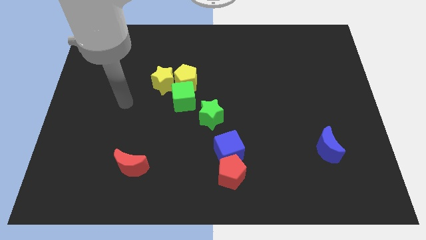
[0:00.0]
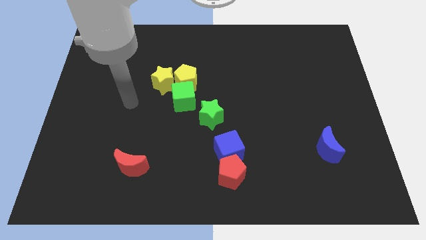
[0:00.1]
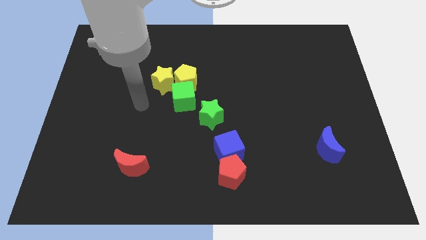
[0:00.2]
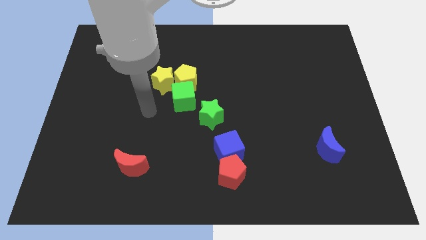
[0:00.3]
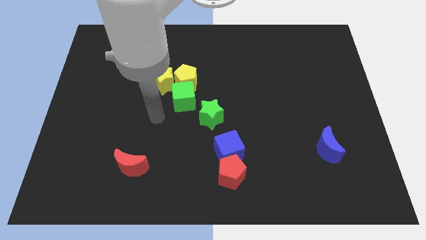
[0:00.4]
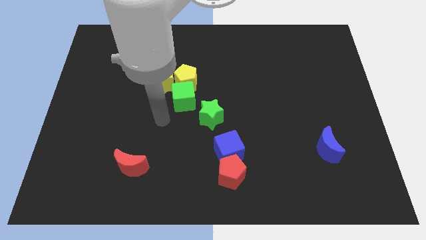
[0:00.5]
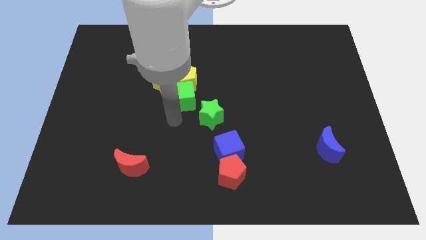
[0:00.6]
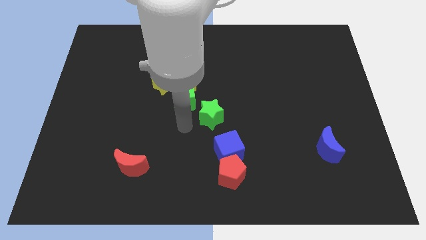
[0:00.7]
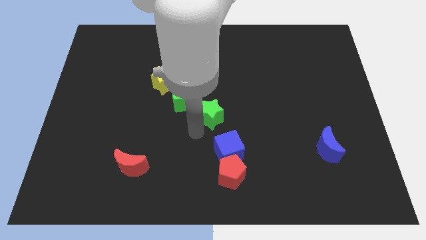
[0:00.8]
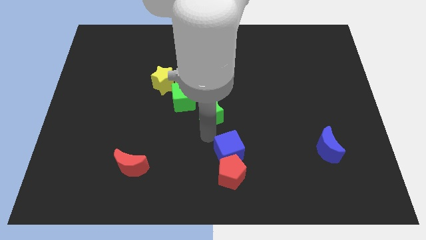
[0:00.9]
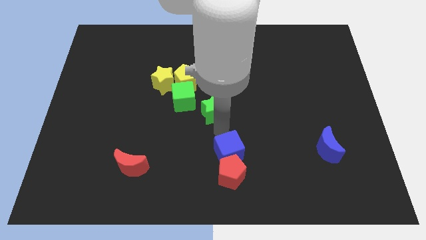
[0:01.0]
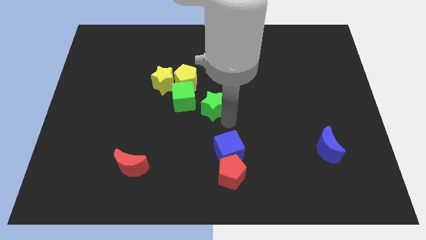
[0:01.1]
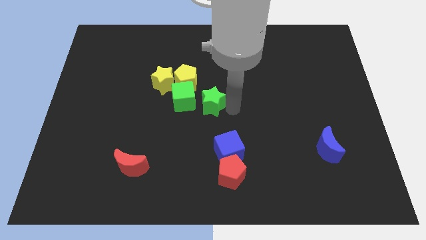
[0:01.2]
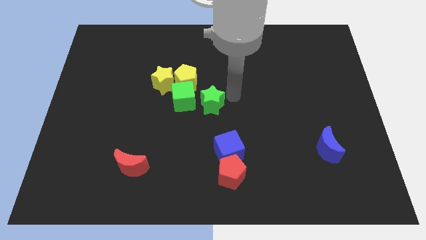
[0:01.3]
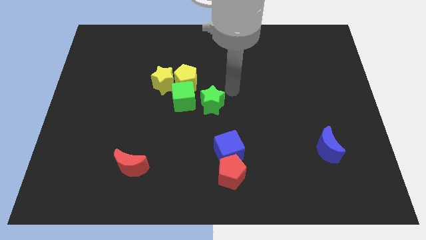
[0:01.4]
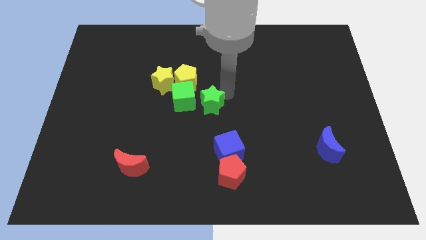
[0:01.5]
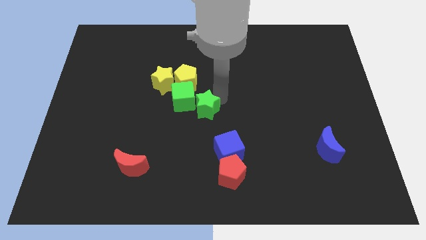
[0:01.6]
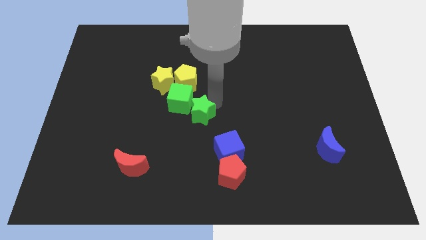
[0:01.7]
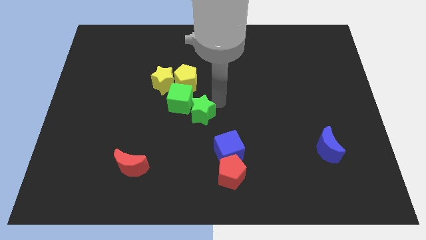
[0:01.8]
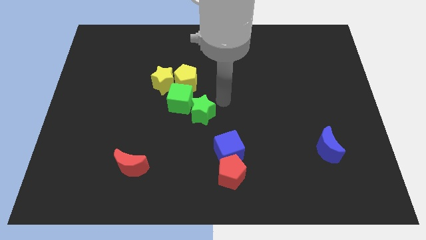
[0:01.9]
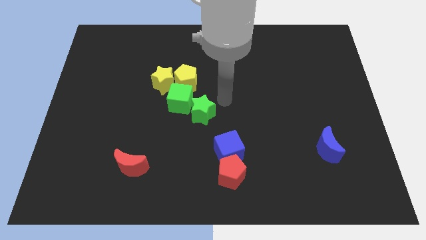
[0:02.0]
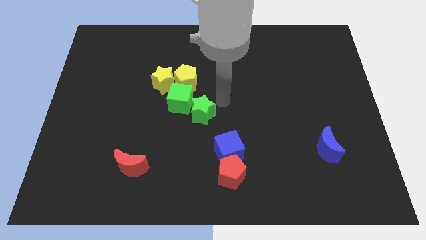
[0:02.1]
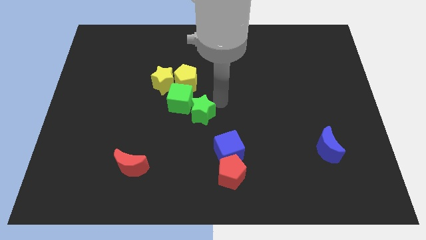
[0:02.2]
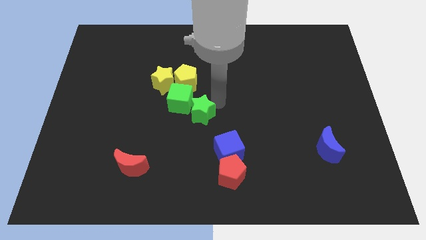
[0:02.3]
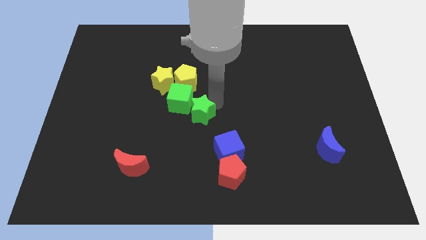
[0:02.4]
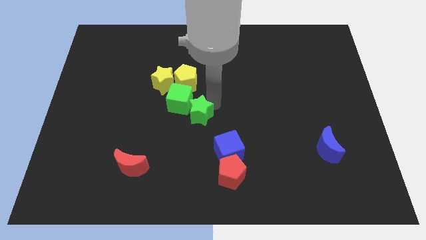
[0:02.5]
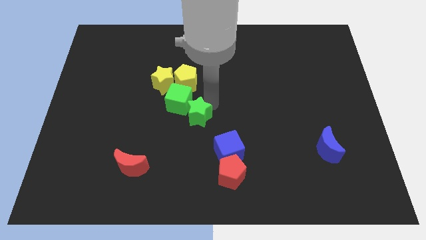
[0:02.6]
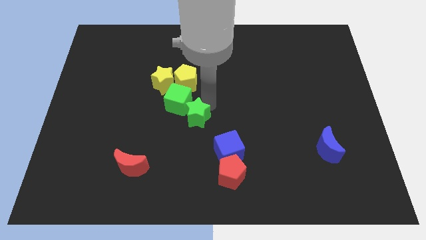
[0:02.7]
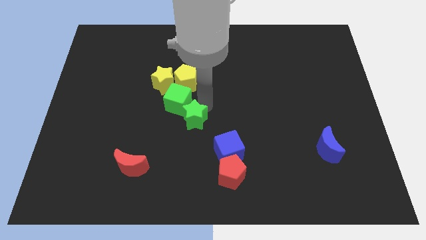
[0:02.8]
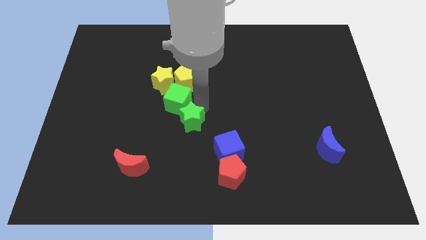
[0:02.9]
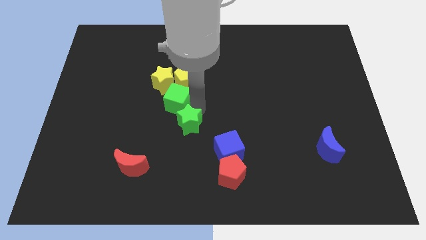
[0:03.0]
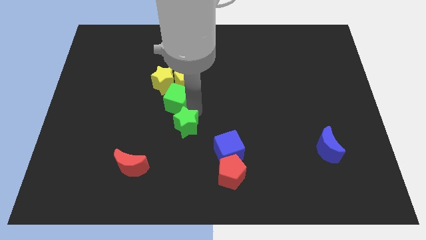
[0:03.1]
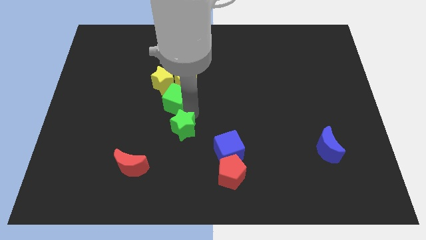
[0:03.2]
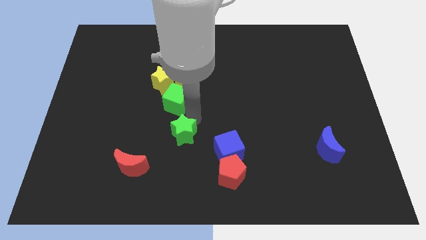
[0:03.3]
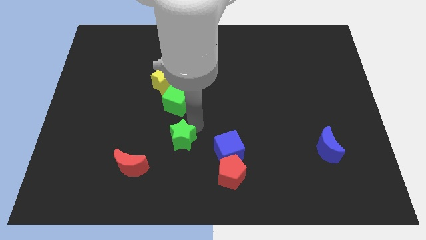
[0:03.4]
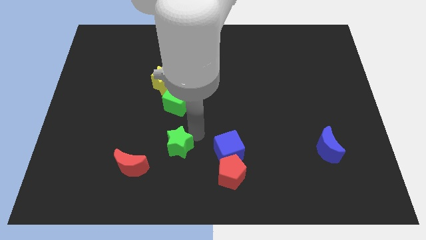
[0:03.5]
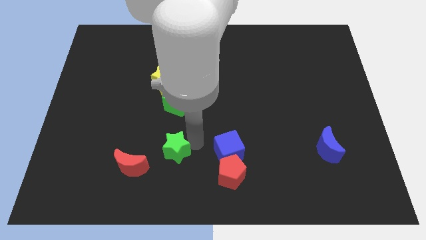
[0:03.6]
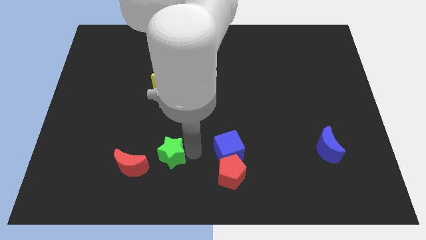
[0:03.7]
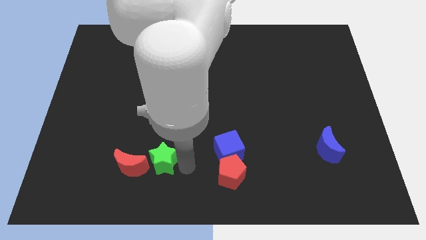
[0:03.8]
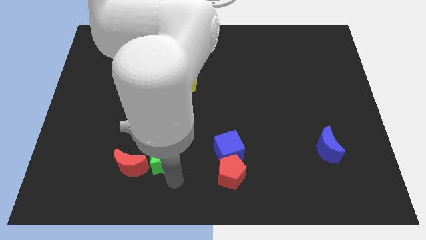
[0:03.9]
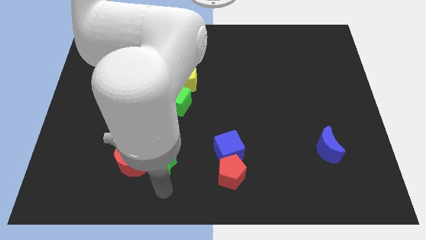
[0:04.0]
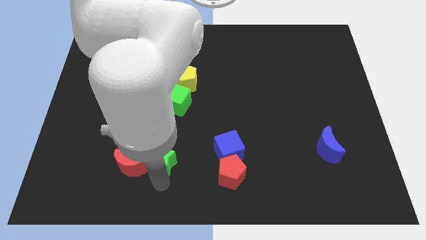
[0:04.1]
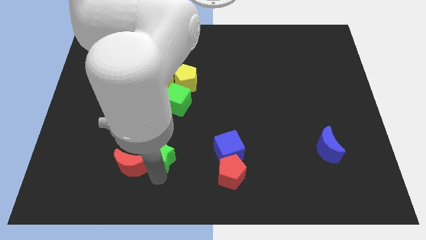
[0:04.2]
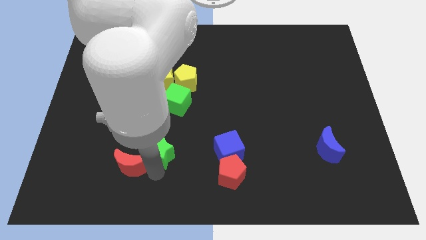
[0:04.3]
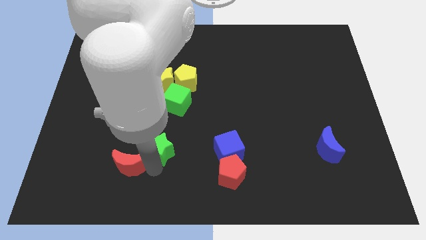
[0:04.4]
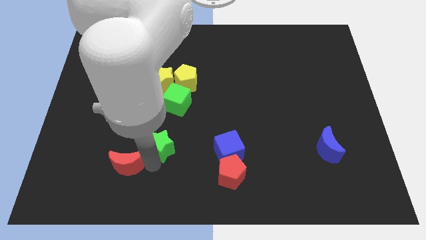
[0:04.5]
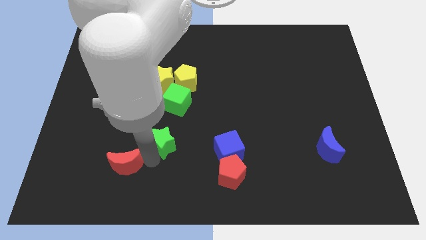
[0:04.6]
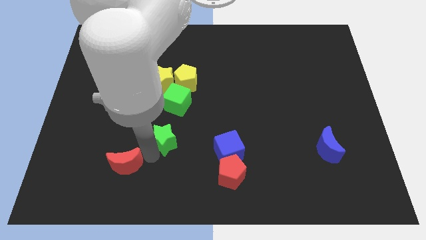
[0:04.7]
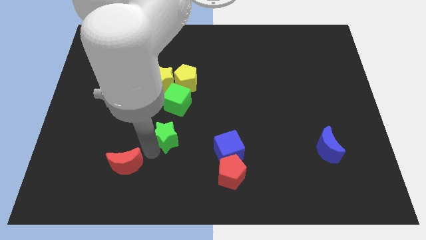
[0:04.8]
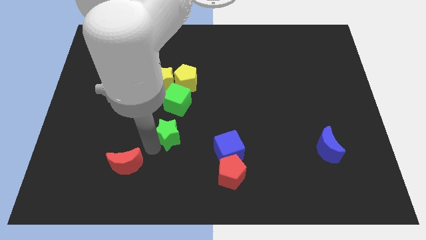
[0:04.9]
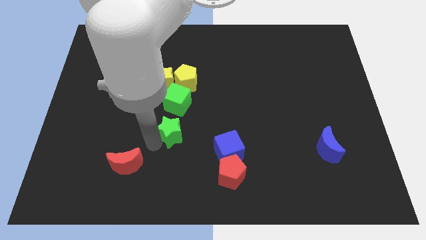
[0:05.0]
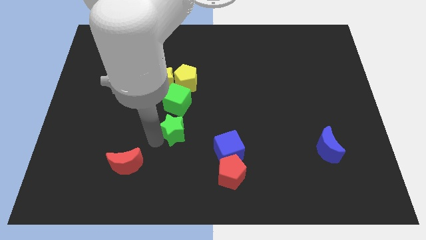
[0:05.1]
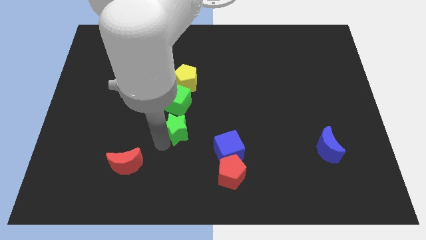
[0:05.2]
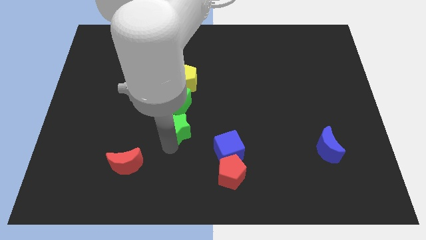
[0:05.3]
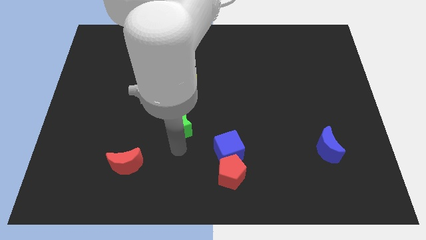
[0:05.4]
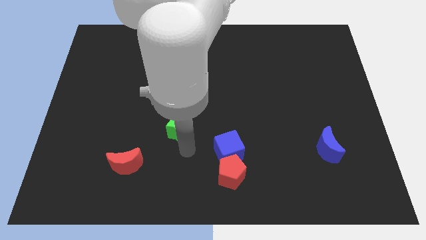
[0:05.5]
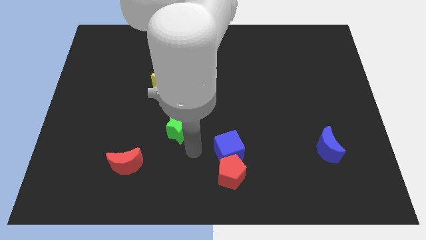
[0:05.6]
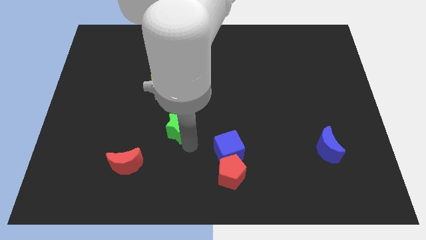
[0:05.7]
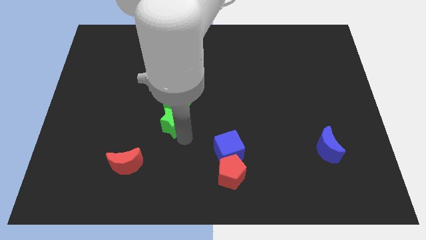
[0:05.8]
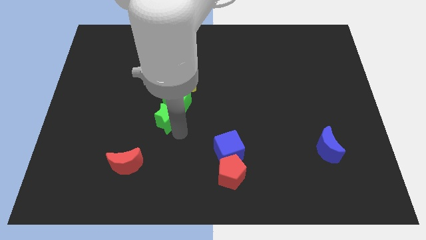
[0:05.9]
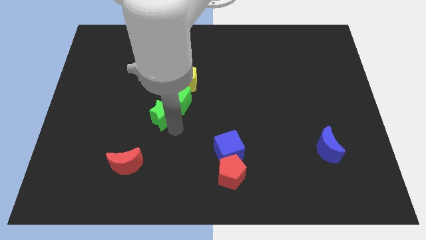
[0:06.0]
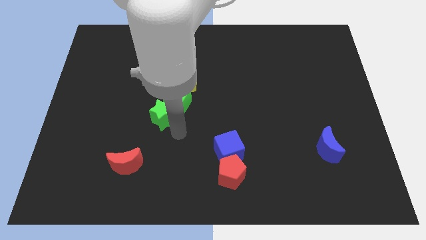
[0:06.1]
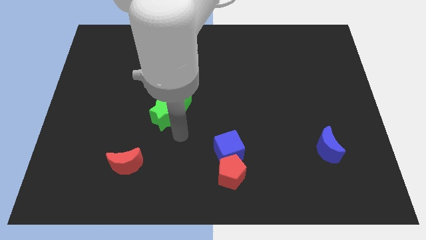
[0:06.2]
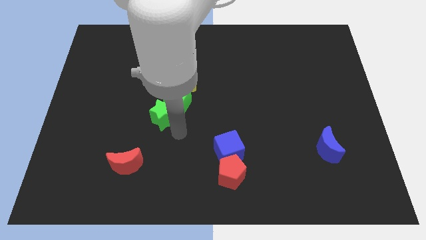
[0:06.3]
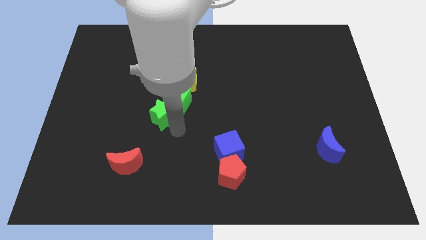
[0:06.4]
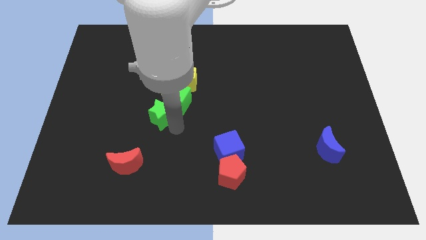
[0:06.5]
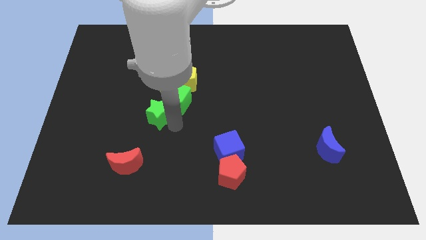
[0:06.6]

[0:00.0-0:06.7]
move the green star to the bottom left side of the yellow pentagon

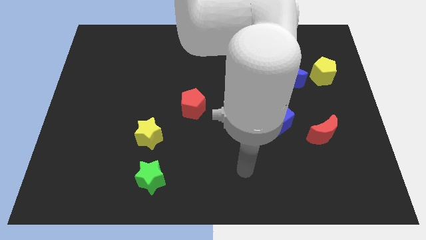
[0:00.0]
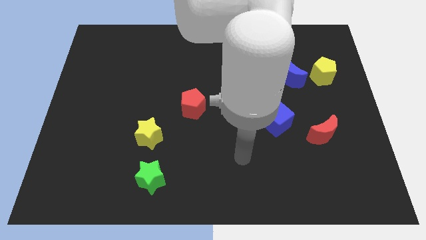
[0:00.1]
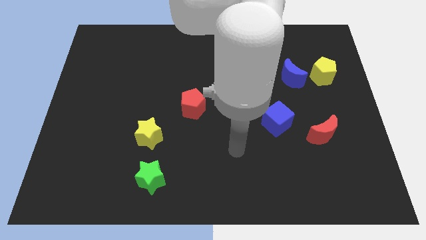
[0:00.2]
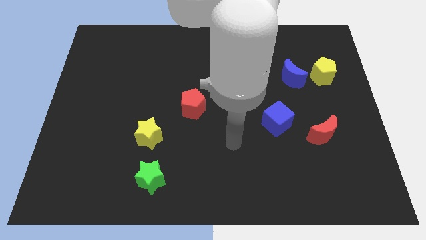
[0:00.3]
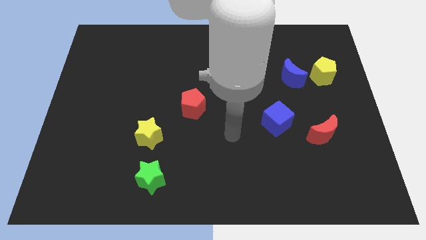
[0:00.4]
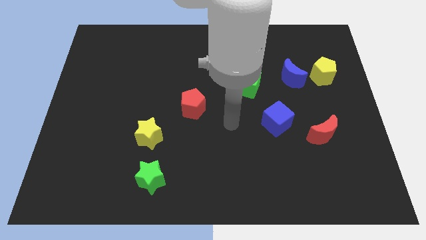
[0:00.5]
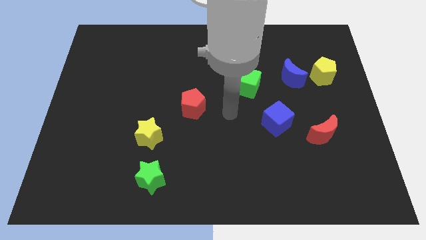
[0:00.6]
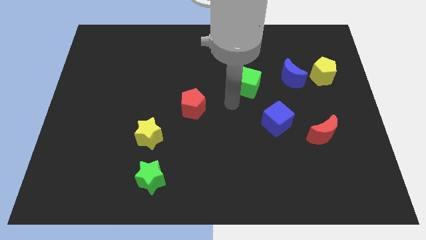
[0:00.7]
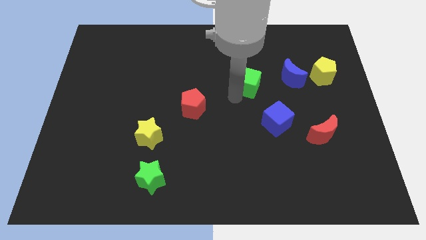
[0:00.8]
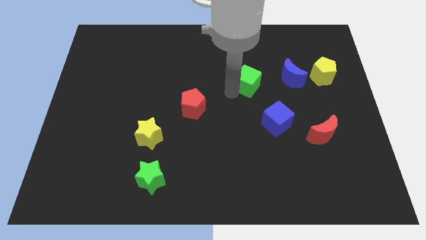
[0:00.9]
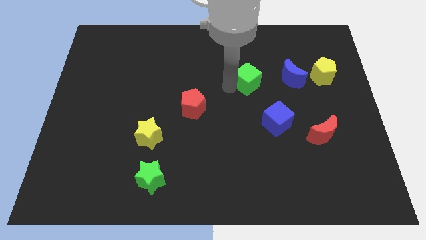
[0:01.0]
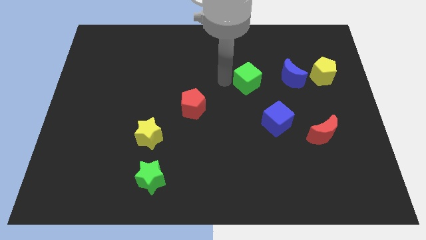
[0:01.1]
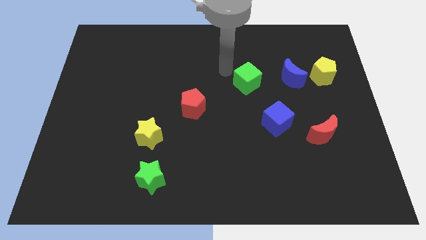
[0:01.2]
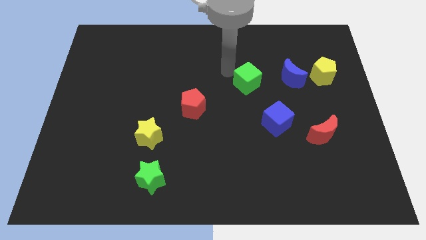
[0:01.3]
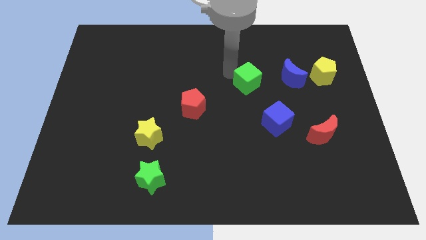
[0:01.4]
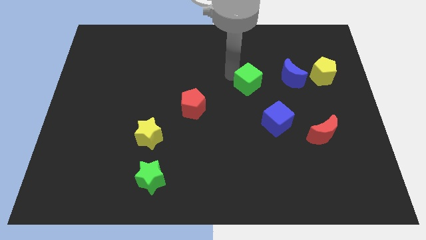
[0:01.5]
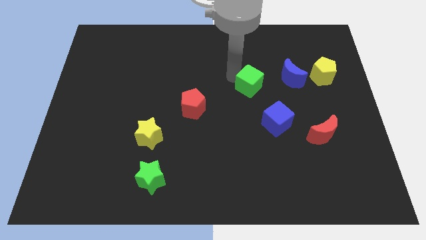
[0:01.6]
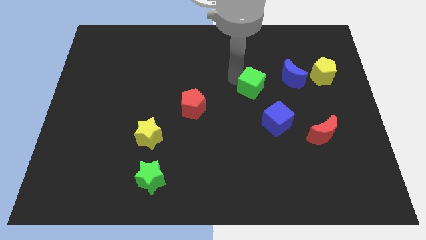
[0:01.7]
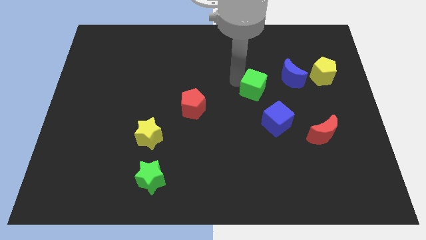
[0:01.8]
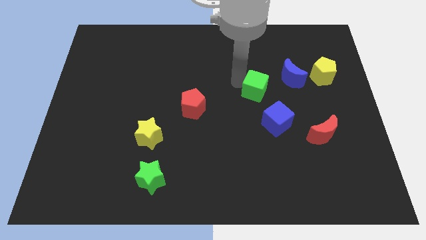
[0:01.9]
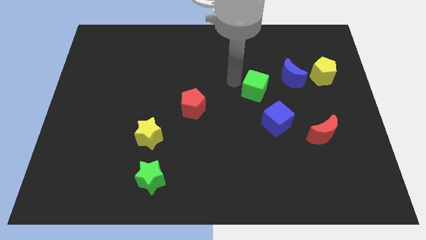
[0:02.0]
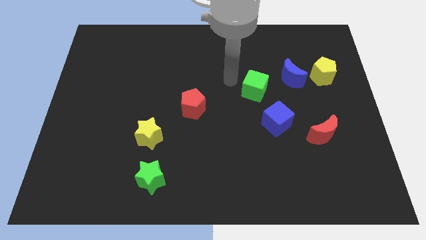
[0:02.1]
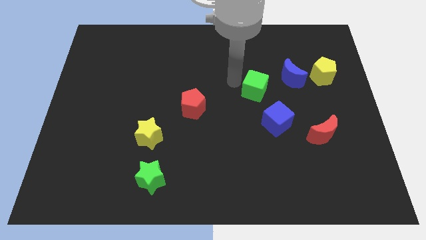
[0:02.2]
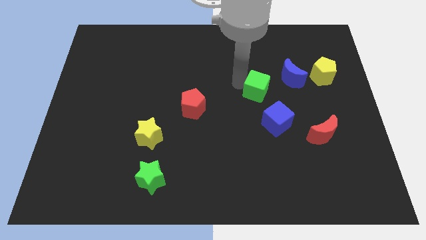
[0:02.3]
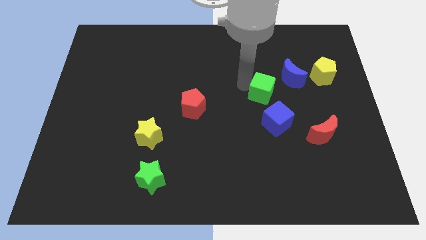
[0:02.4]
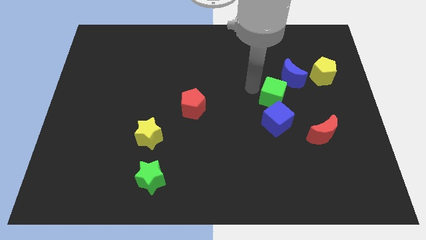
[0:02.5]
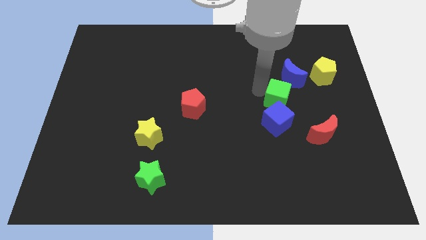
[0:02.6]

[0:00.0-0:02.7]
put the green cube diagonally up and to the right of the blue cube
